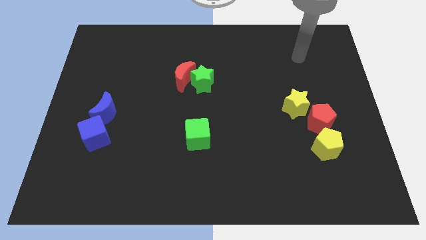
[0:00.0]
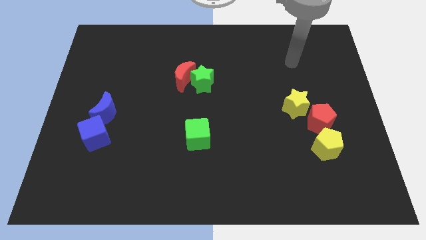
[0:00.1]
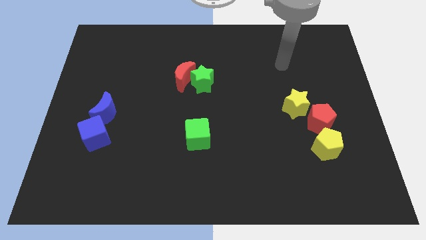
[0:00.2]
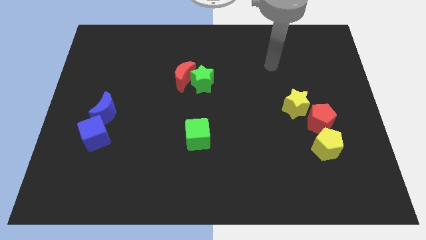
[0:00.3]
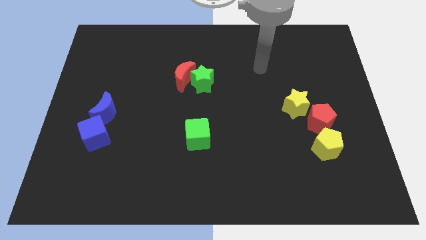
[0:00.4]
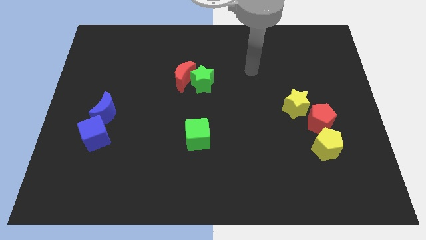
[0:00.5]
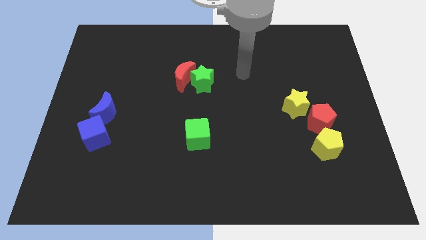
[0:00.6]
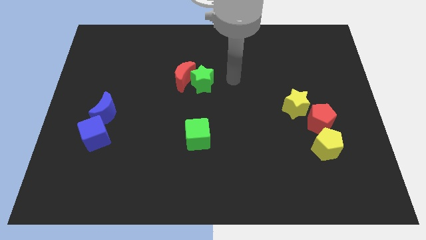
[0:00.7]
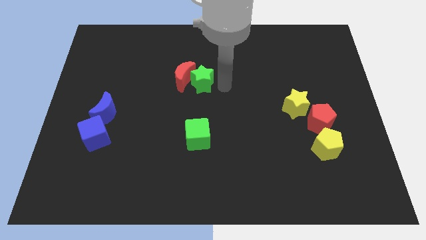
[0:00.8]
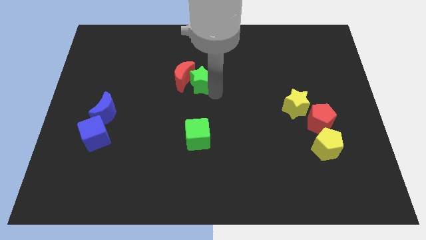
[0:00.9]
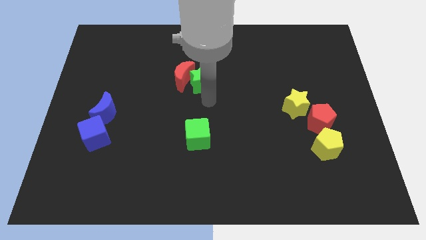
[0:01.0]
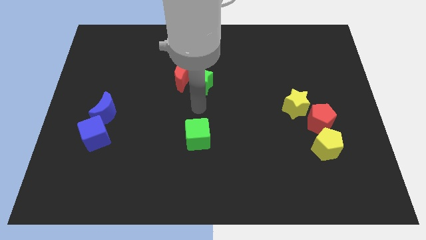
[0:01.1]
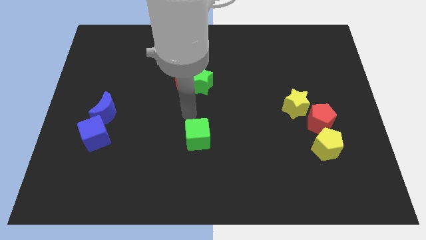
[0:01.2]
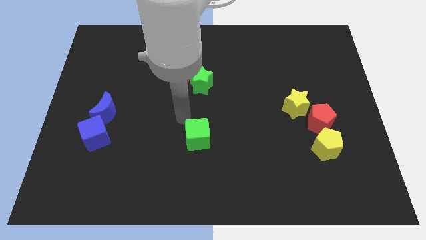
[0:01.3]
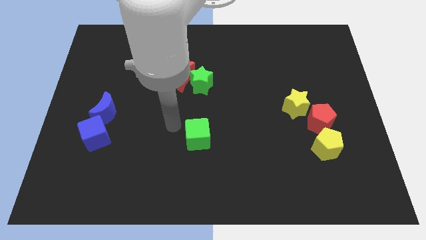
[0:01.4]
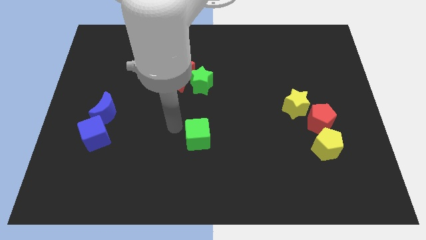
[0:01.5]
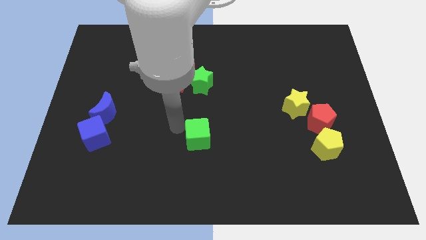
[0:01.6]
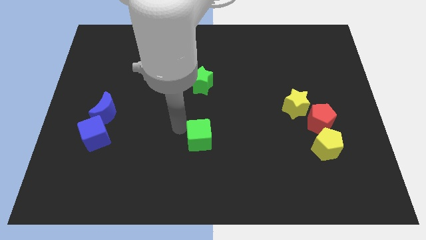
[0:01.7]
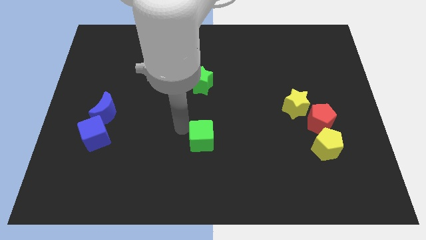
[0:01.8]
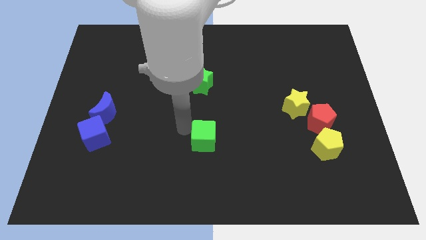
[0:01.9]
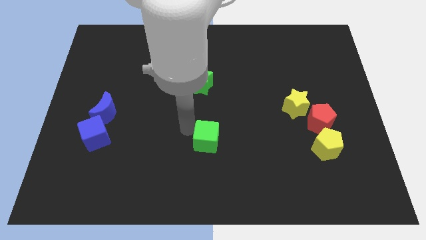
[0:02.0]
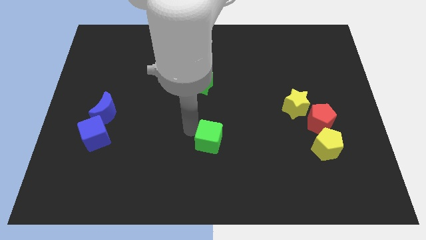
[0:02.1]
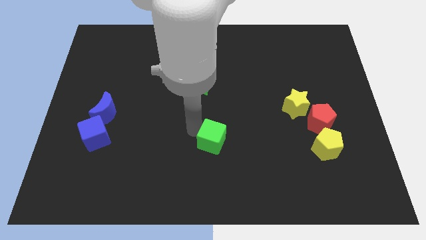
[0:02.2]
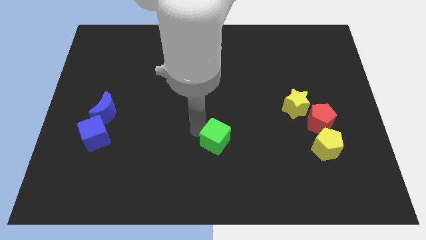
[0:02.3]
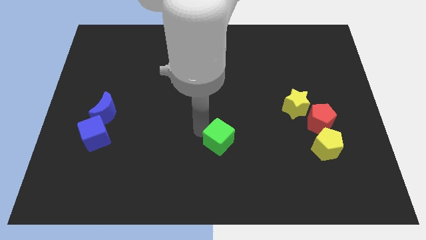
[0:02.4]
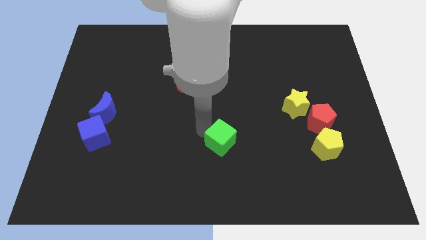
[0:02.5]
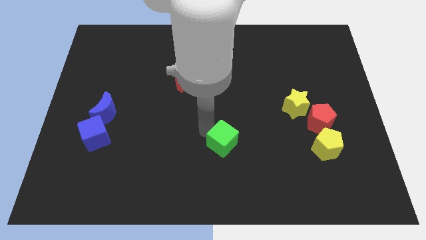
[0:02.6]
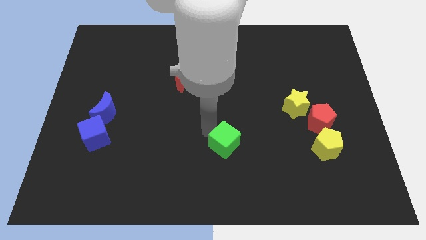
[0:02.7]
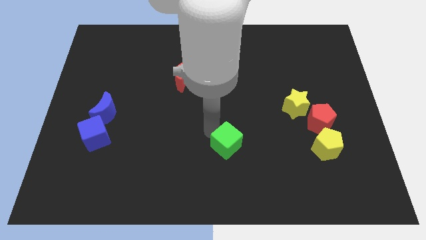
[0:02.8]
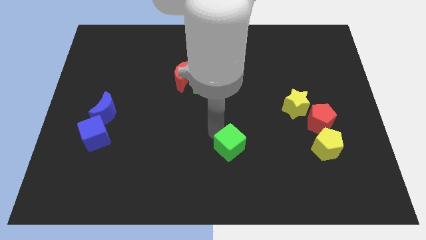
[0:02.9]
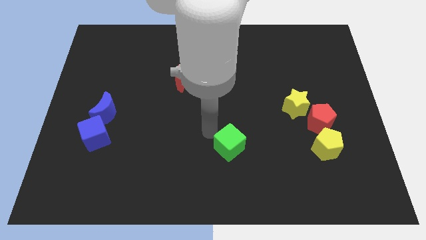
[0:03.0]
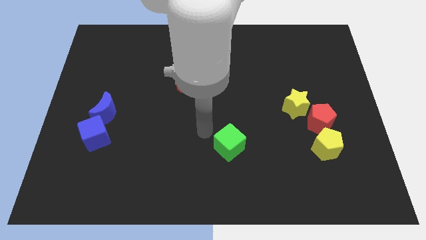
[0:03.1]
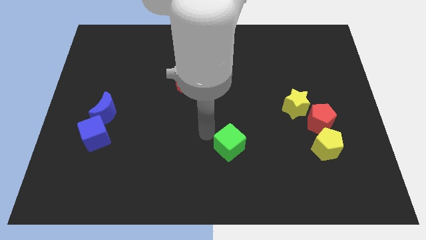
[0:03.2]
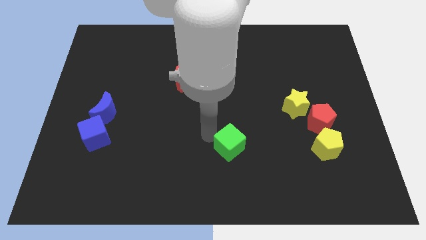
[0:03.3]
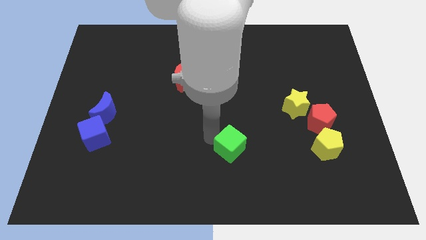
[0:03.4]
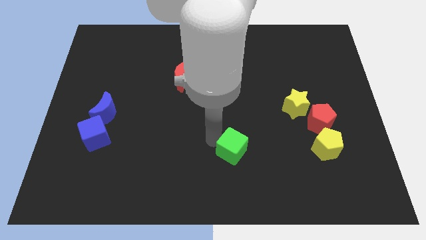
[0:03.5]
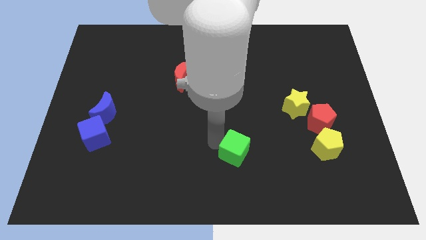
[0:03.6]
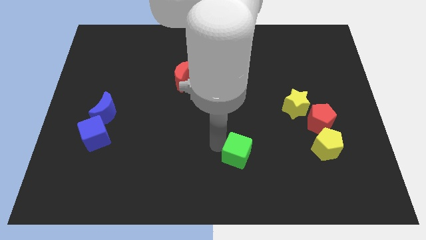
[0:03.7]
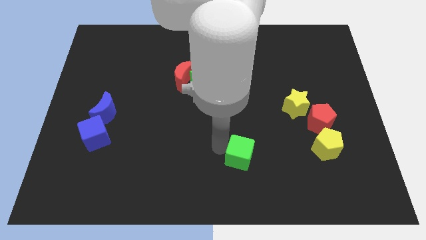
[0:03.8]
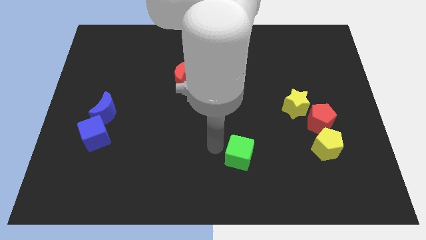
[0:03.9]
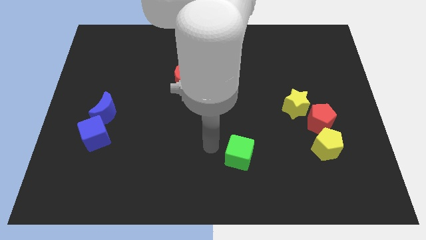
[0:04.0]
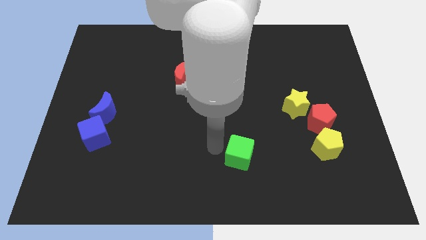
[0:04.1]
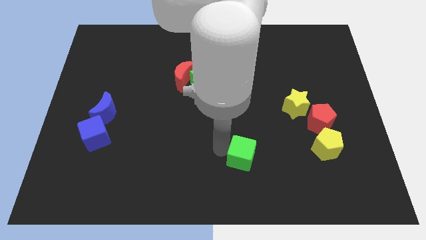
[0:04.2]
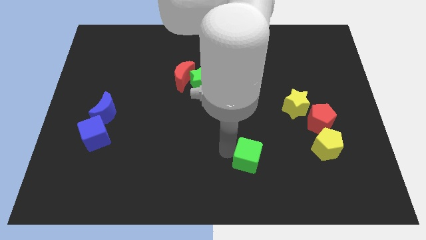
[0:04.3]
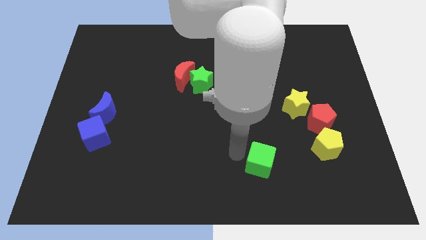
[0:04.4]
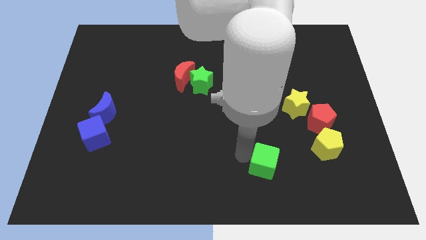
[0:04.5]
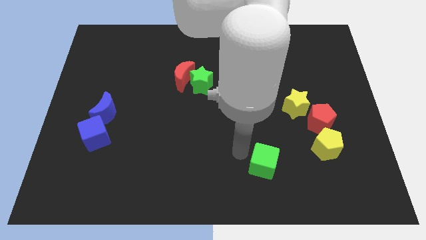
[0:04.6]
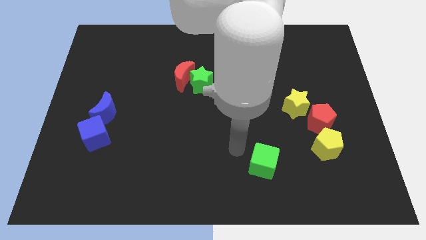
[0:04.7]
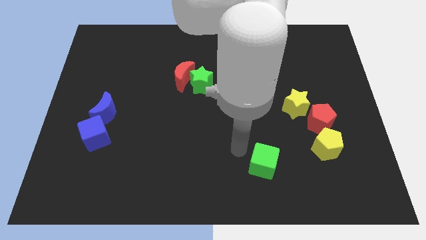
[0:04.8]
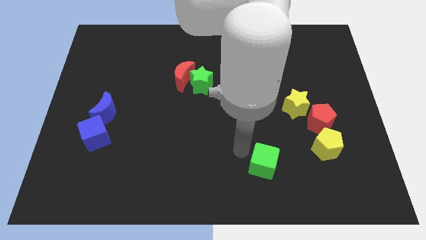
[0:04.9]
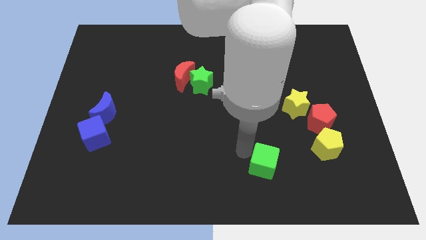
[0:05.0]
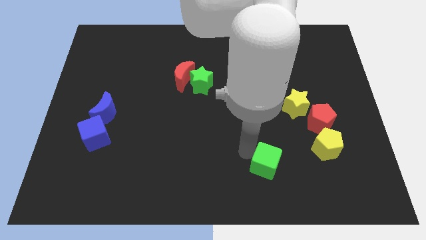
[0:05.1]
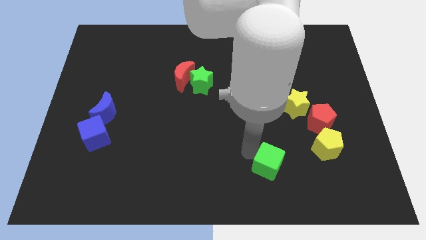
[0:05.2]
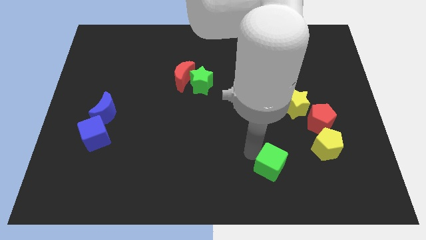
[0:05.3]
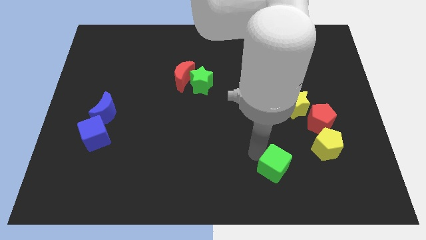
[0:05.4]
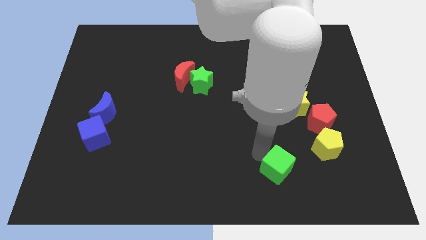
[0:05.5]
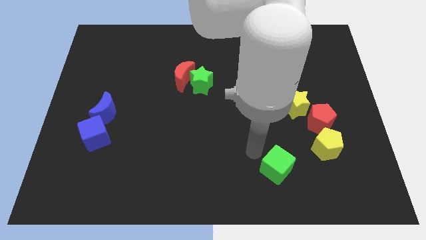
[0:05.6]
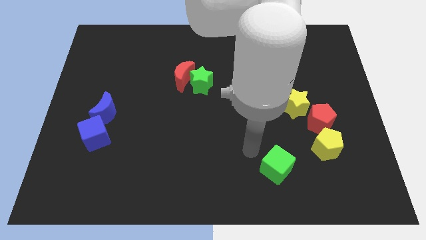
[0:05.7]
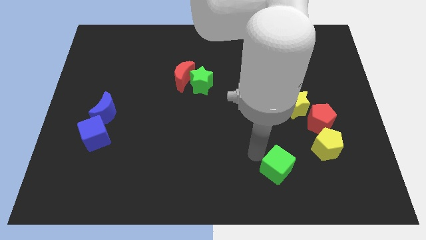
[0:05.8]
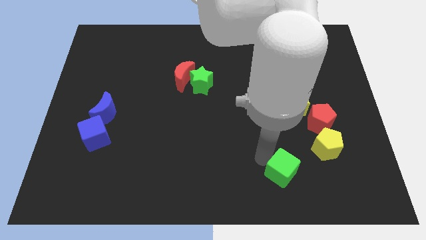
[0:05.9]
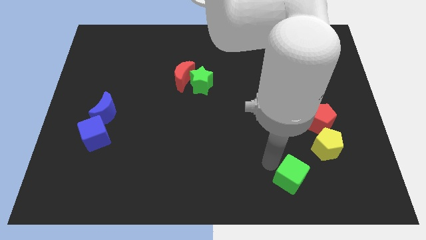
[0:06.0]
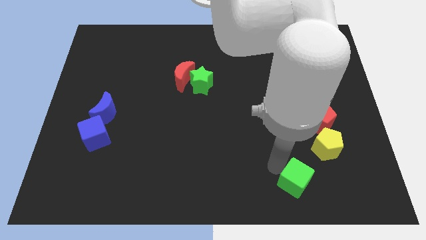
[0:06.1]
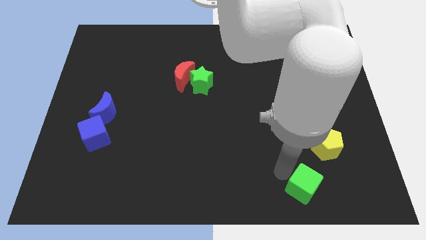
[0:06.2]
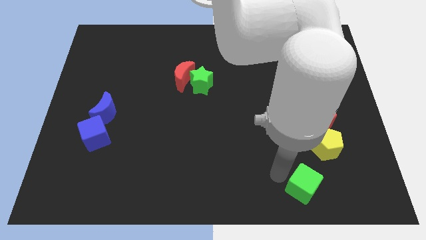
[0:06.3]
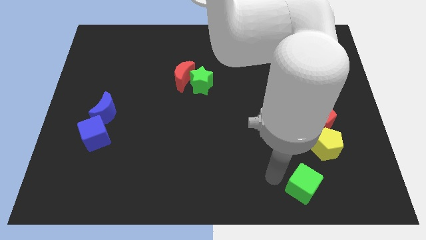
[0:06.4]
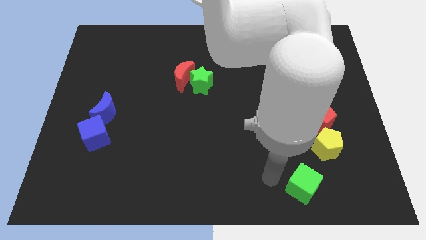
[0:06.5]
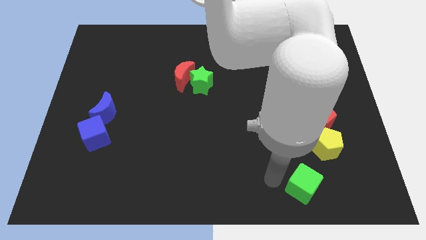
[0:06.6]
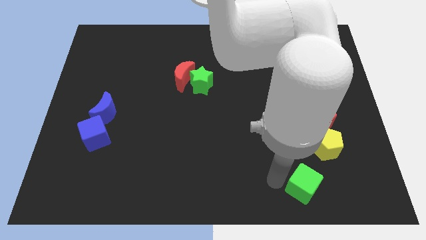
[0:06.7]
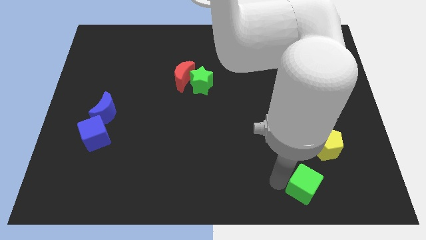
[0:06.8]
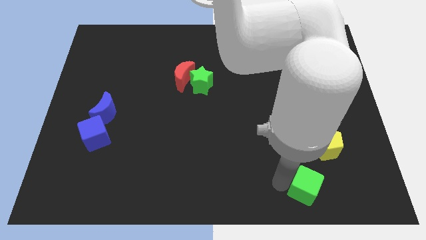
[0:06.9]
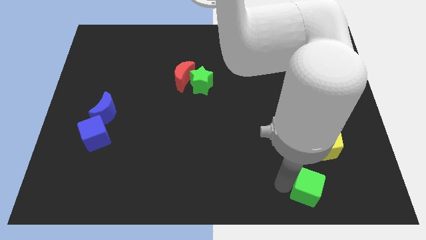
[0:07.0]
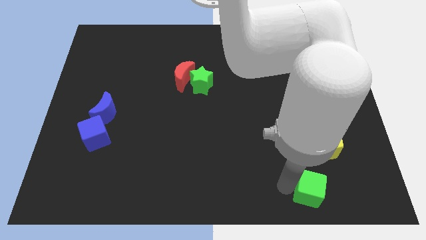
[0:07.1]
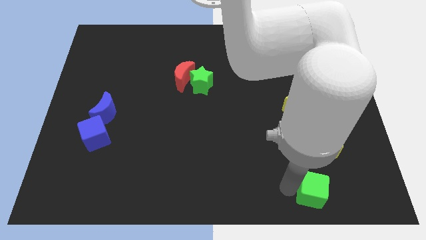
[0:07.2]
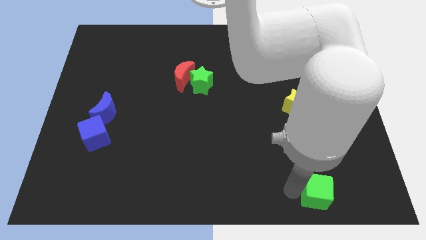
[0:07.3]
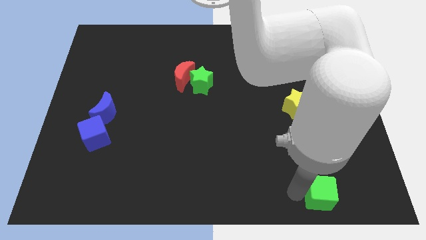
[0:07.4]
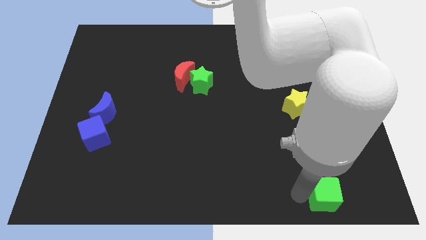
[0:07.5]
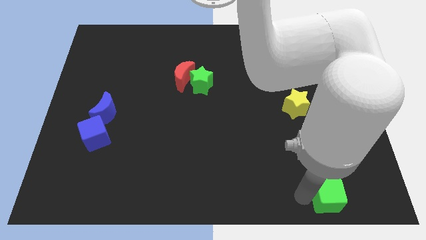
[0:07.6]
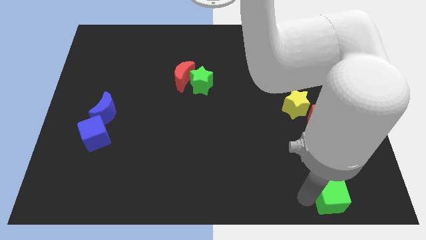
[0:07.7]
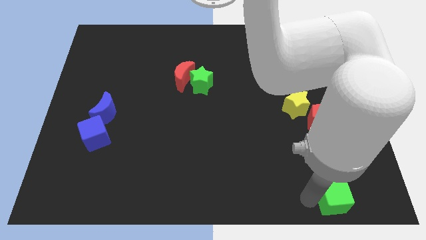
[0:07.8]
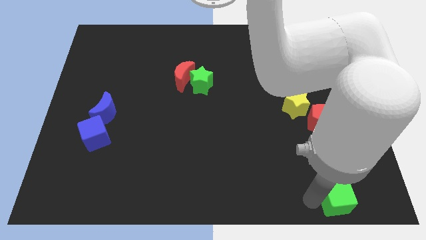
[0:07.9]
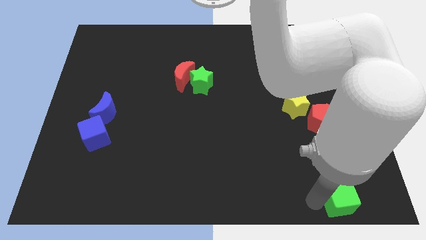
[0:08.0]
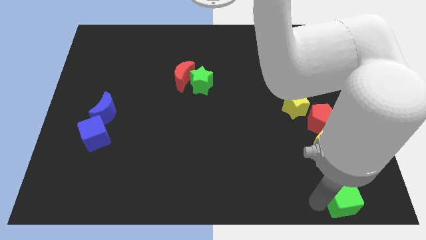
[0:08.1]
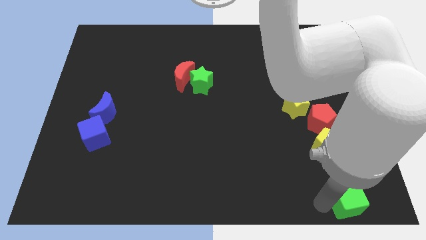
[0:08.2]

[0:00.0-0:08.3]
put the green cube to the lower right corner
